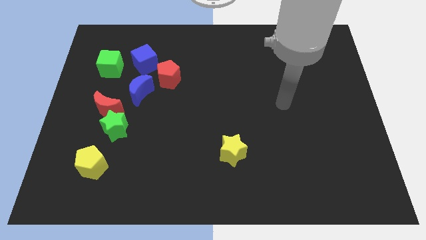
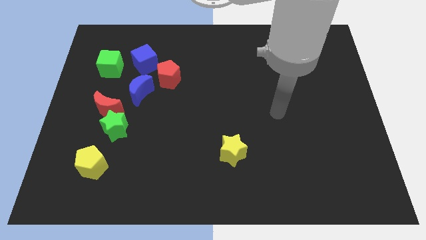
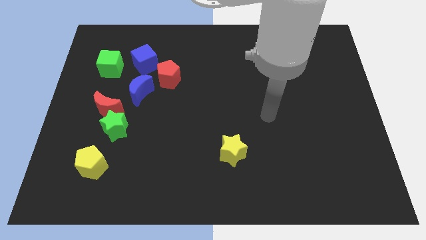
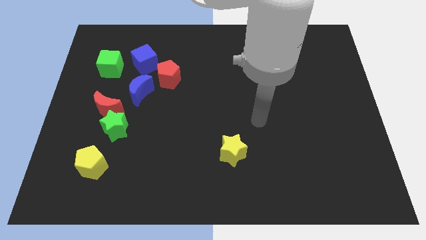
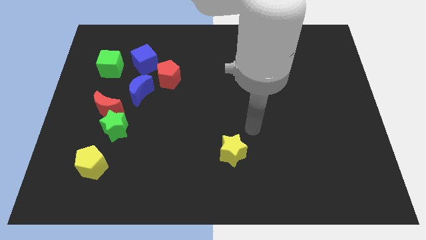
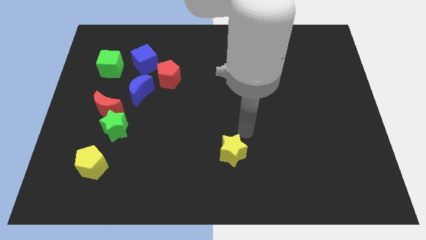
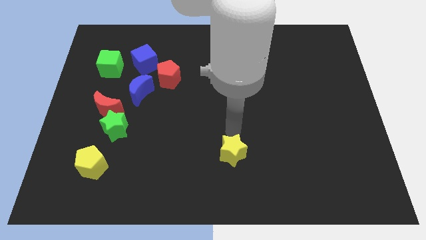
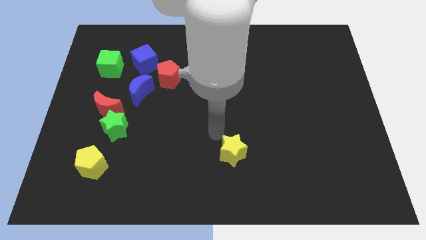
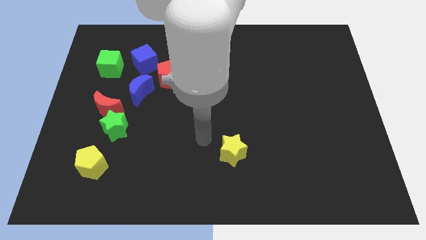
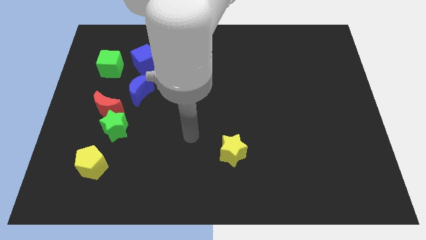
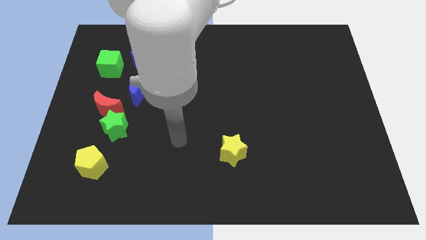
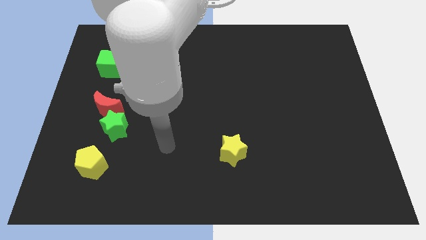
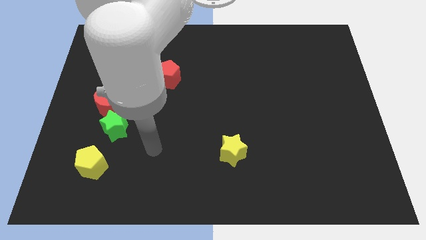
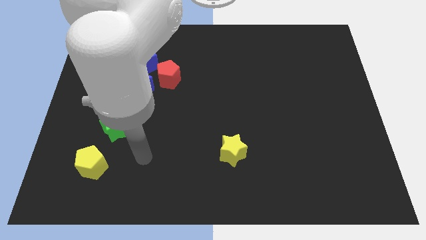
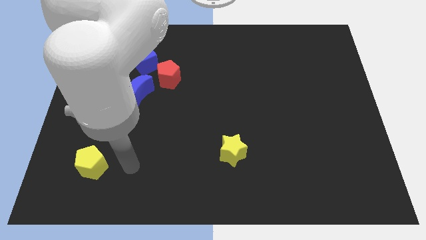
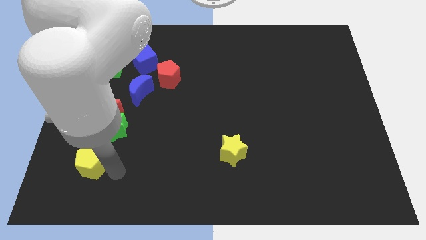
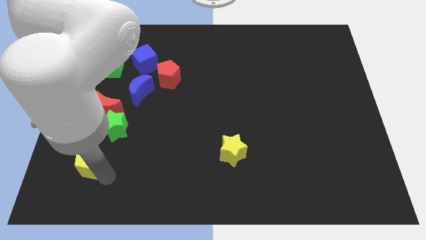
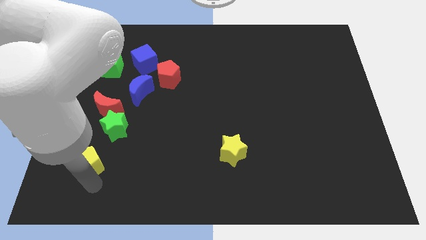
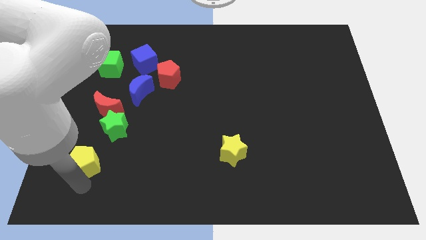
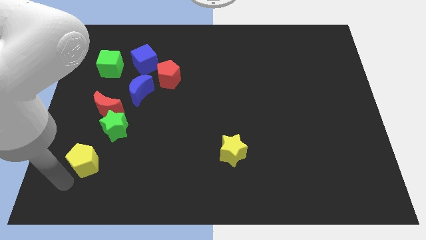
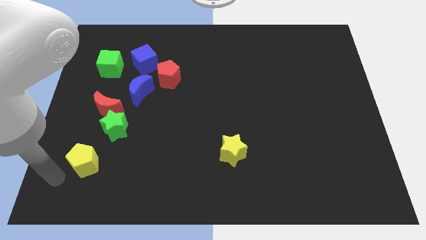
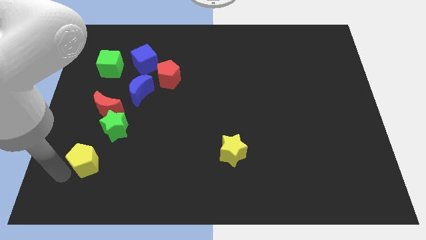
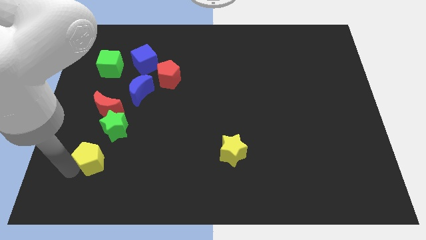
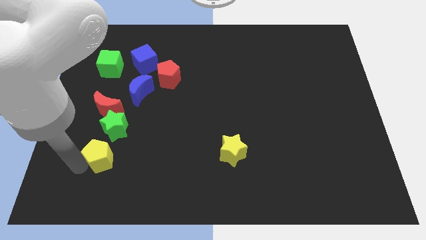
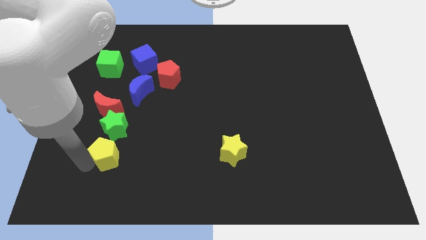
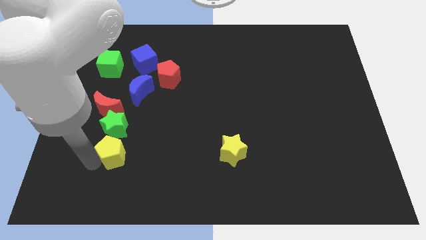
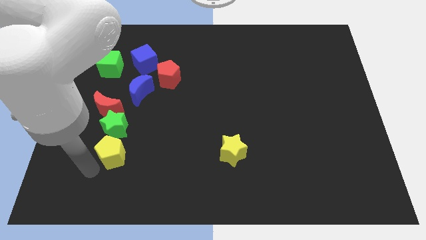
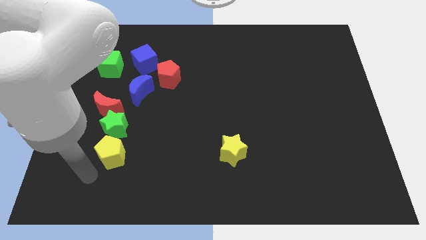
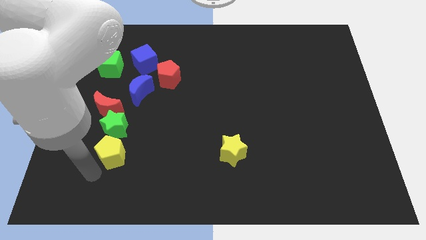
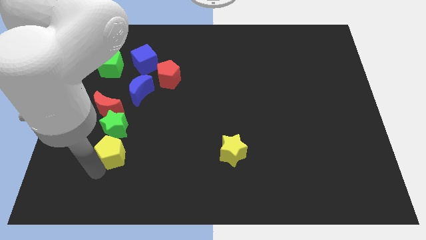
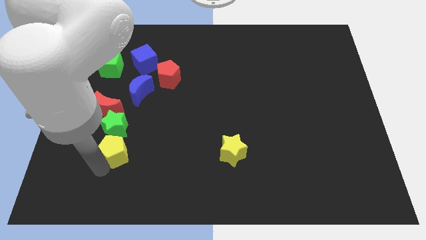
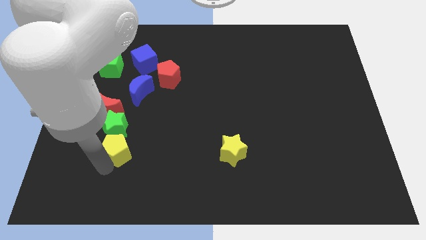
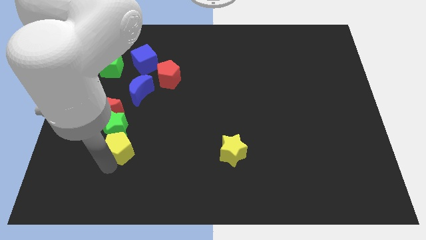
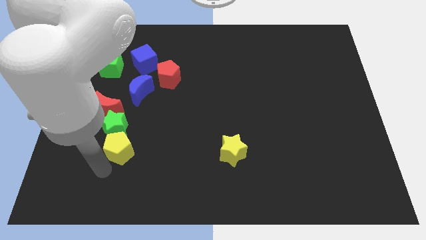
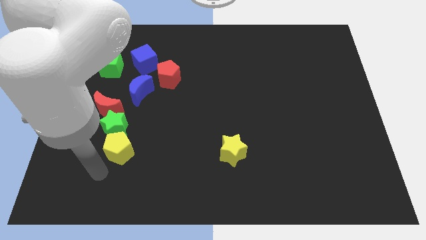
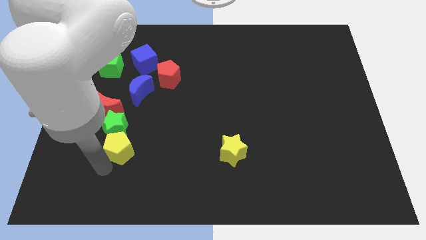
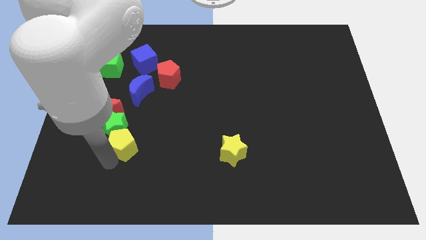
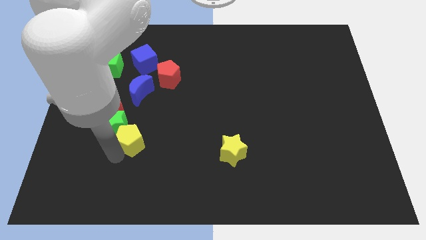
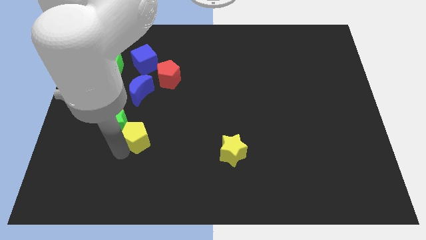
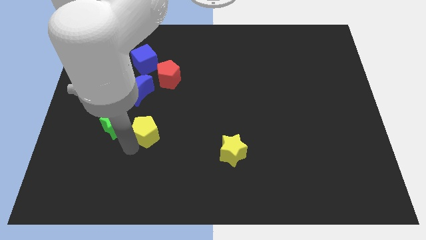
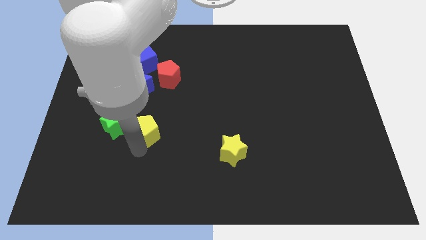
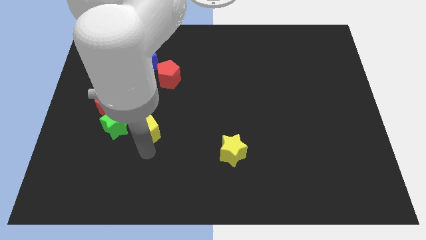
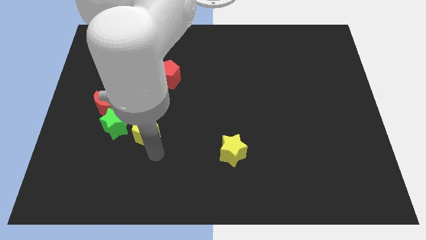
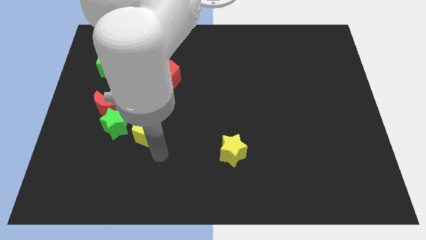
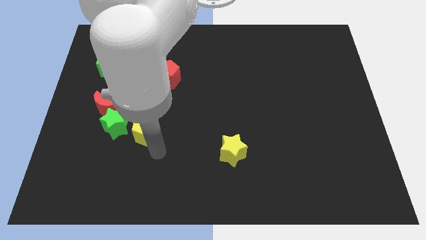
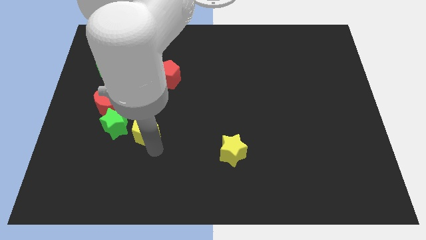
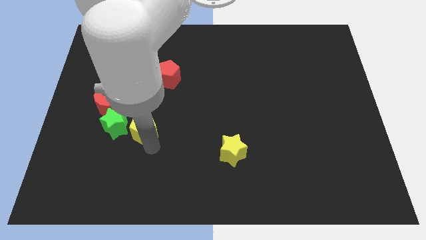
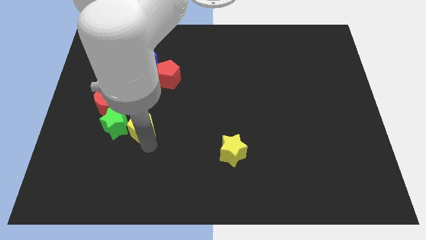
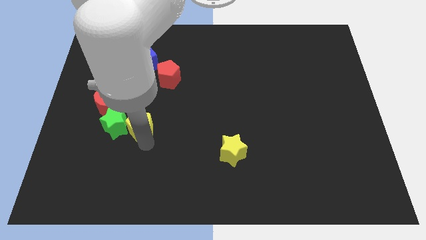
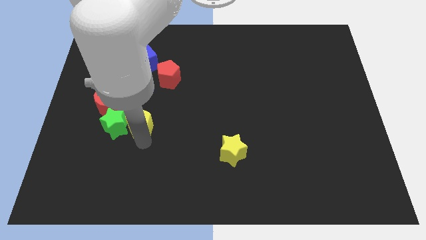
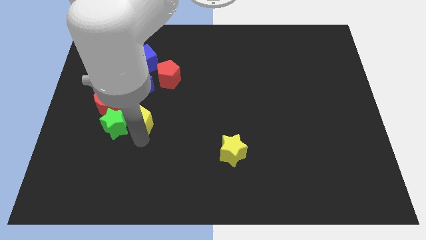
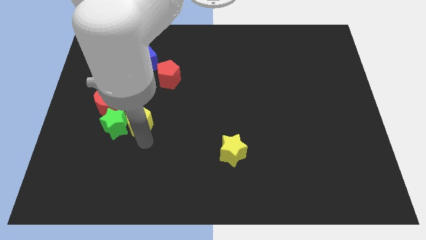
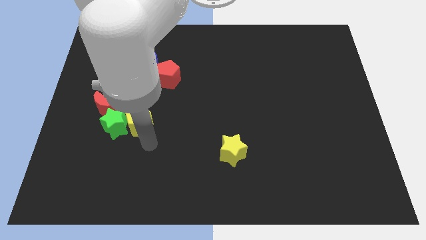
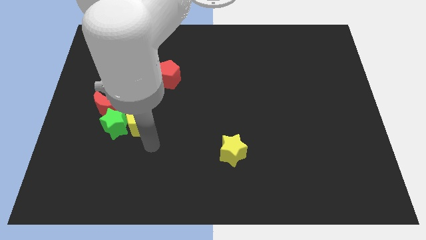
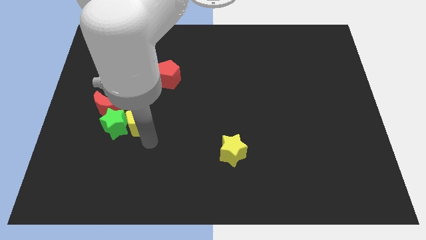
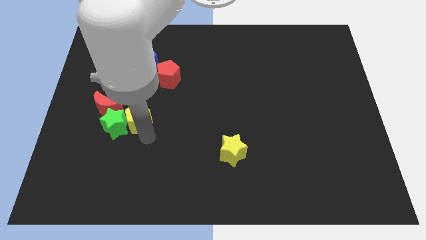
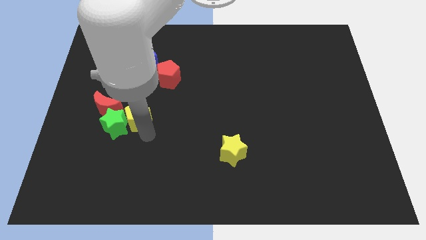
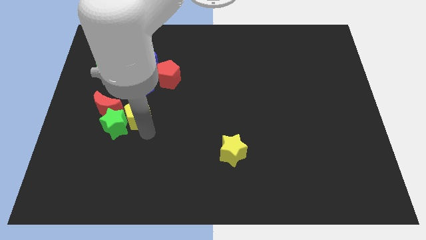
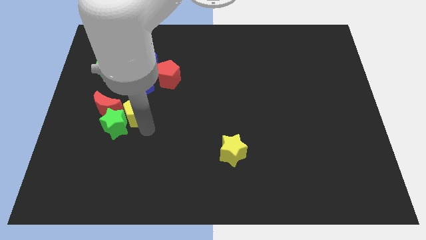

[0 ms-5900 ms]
push the yellow pentagon to the top of the green star

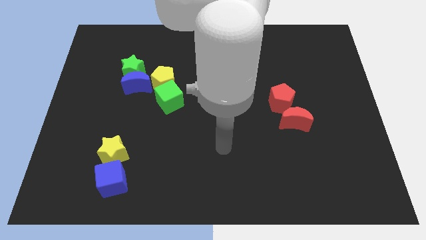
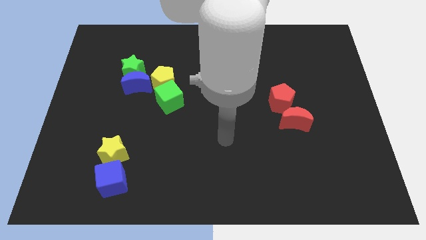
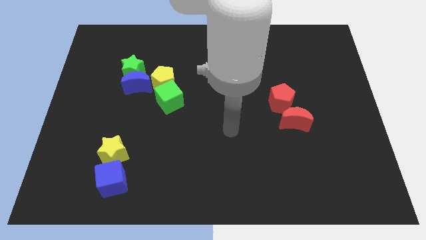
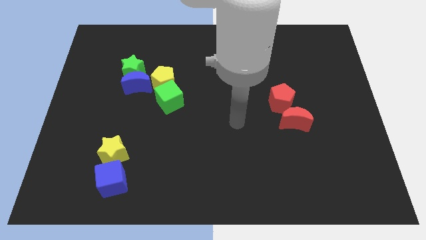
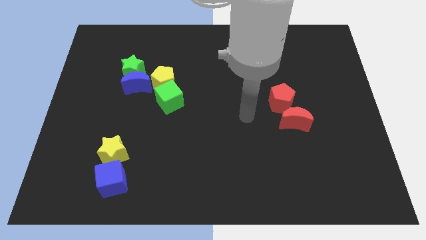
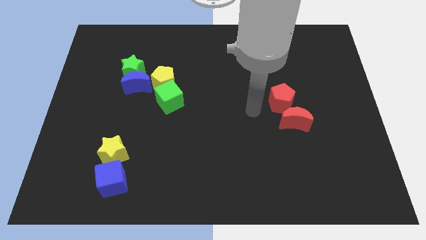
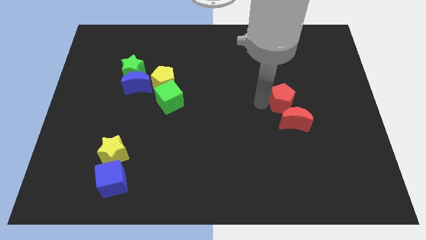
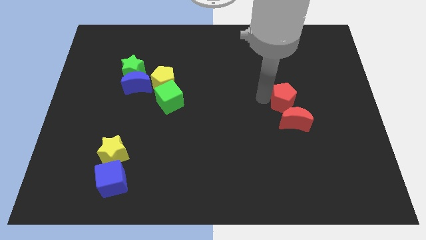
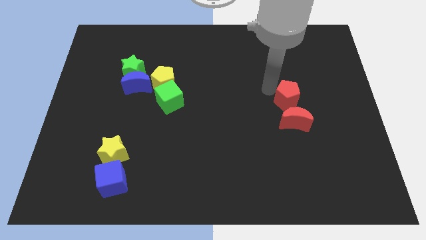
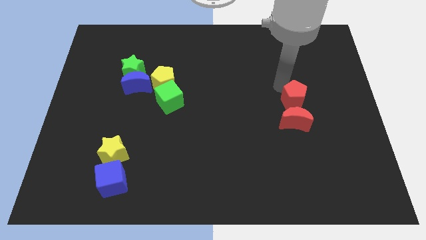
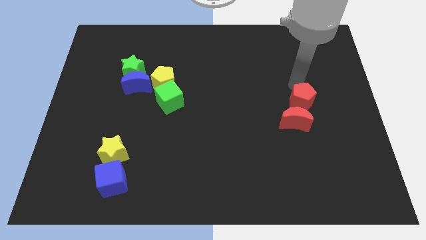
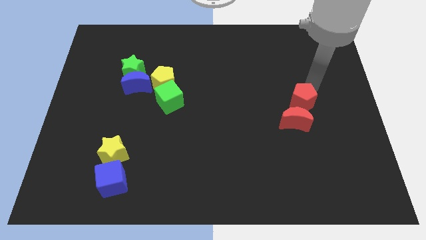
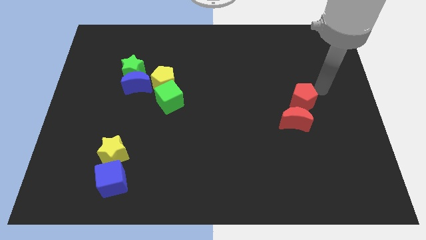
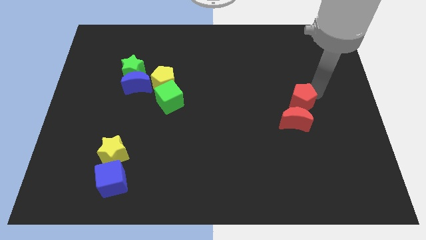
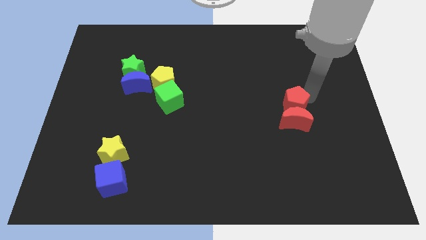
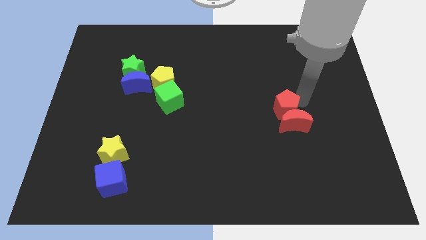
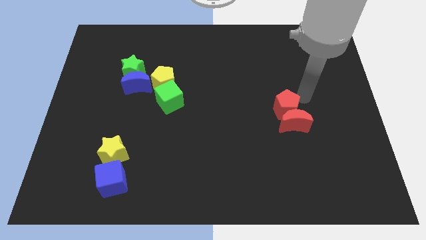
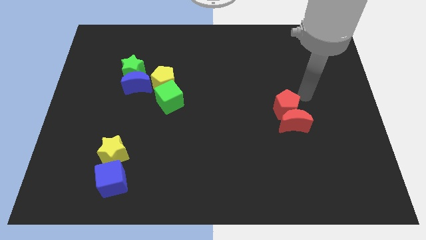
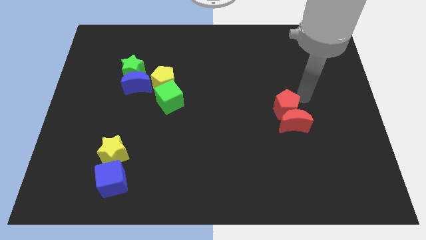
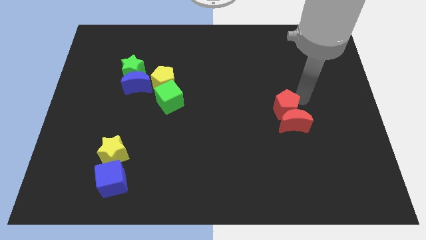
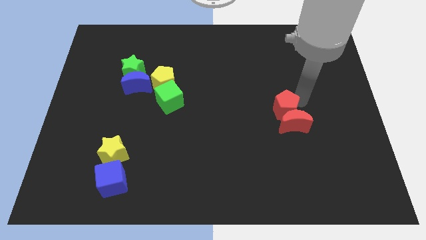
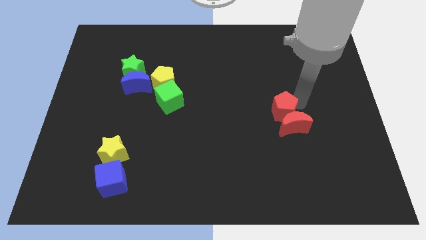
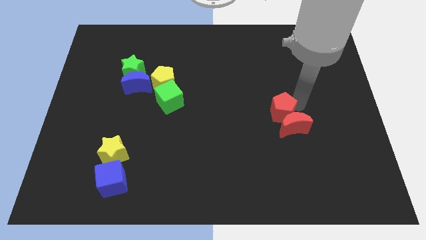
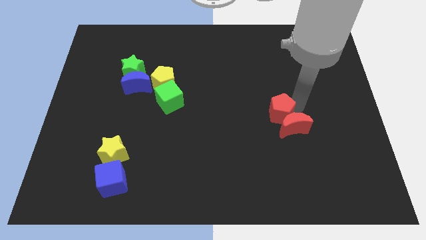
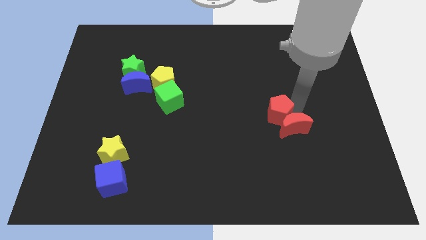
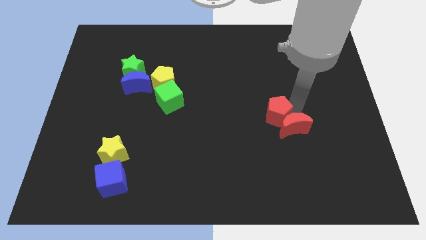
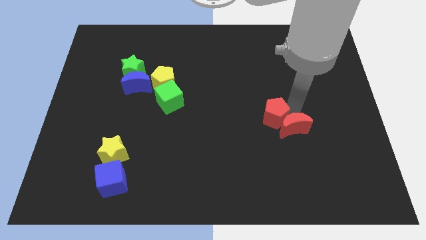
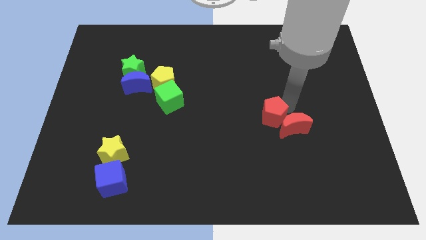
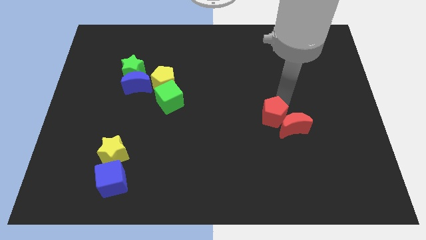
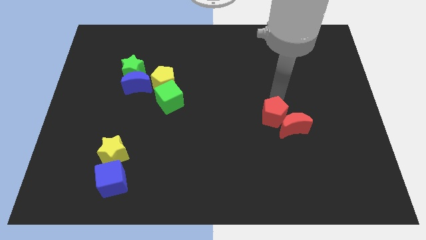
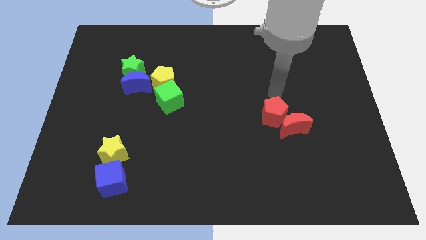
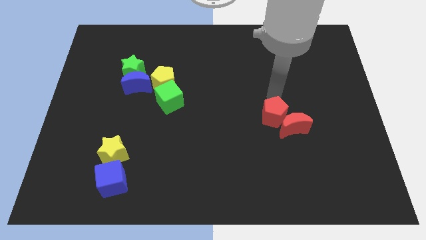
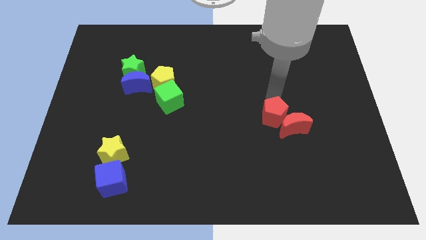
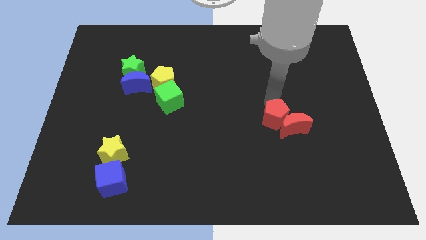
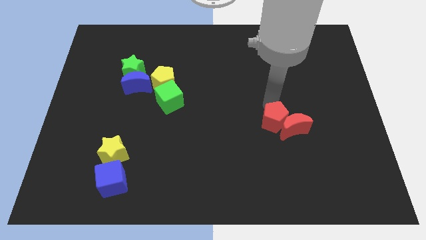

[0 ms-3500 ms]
slide the red pentagon to the bottom left of the red moon
